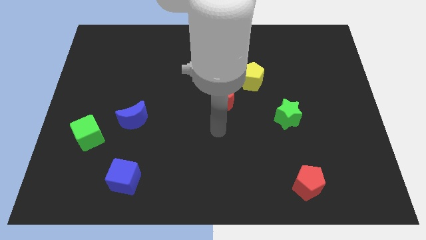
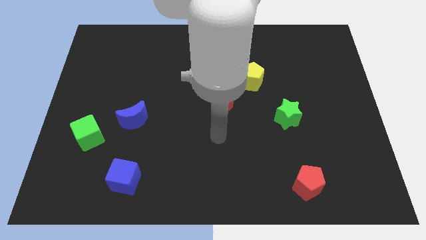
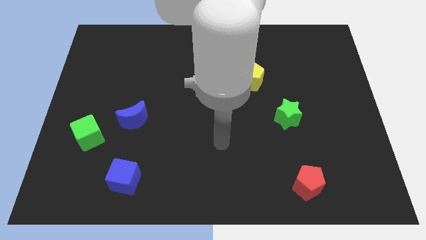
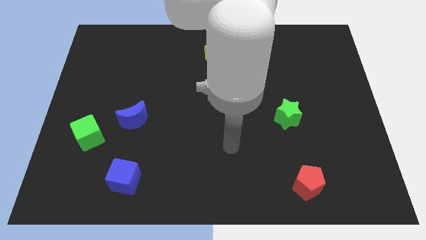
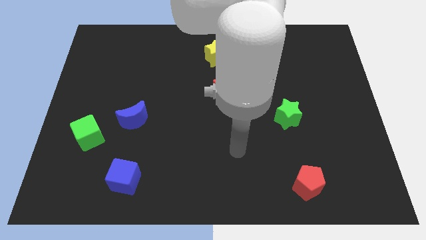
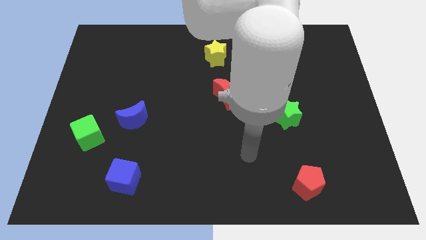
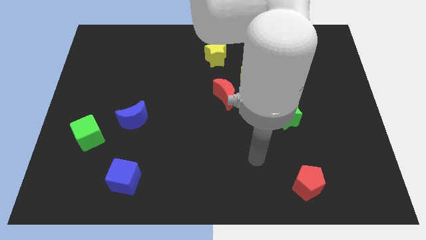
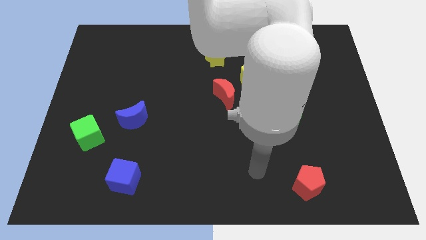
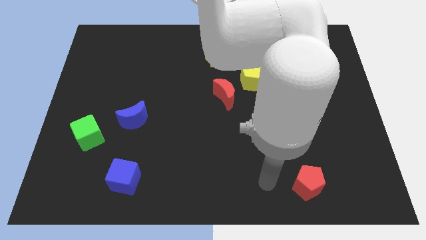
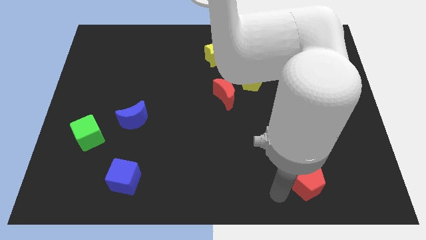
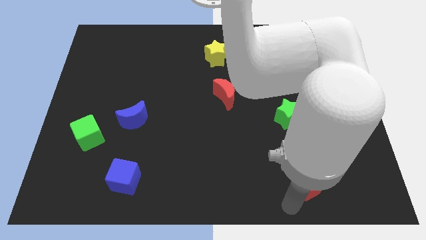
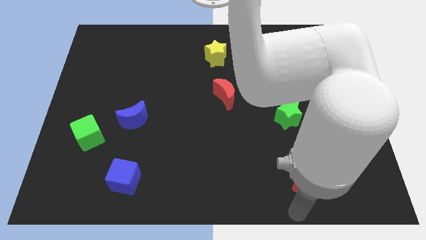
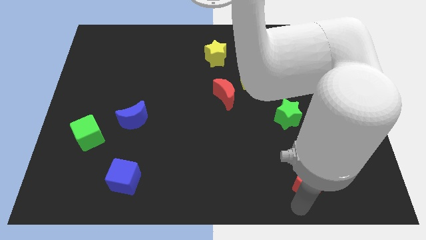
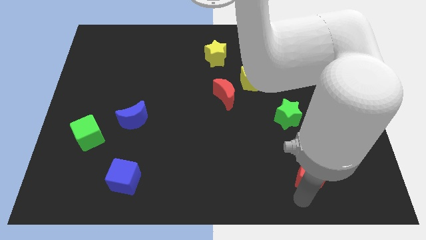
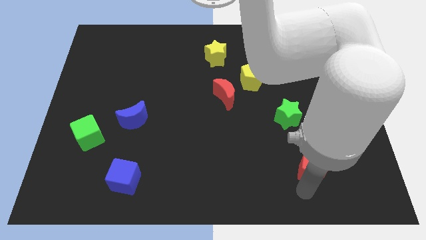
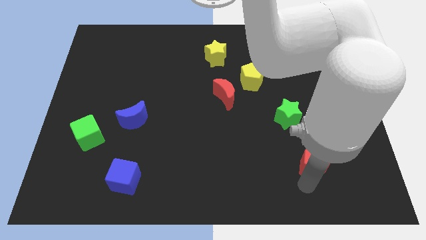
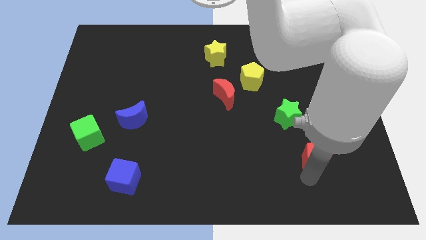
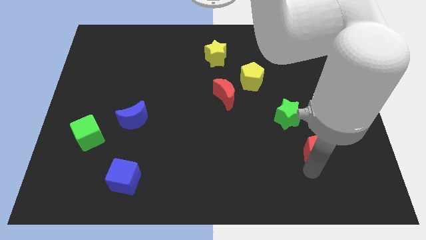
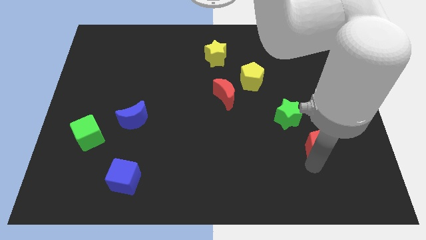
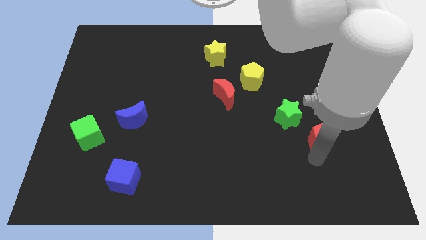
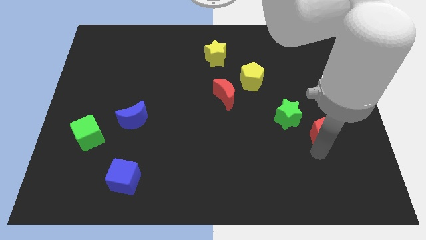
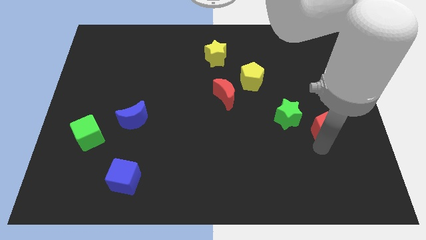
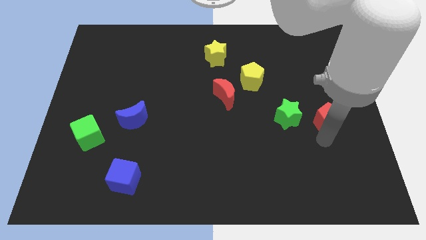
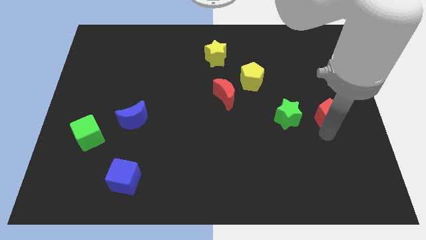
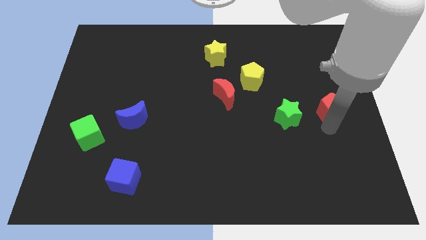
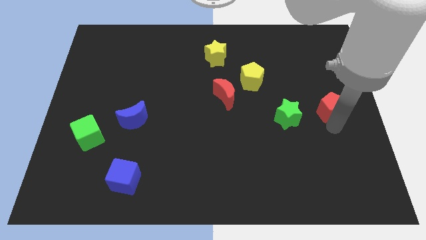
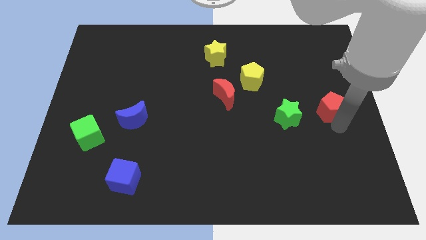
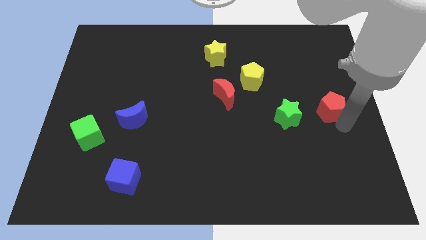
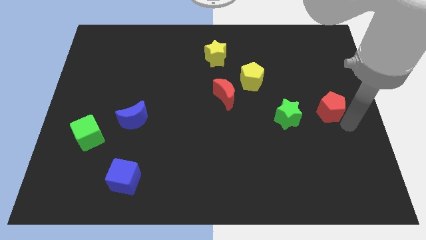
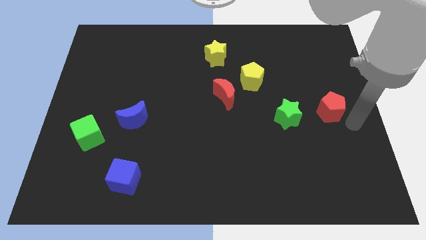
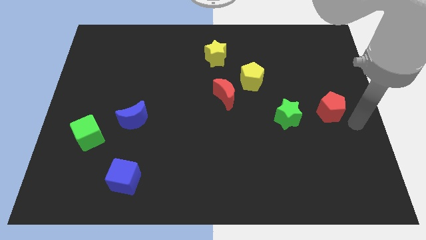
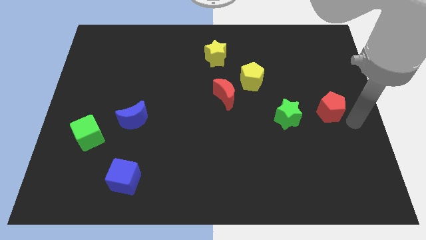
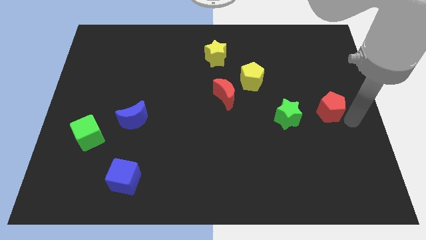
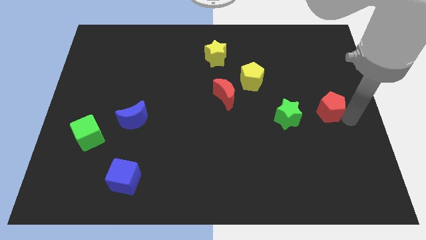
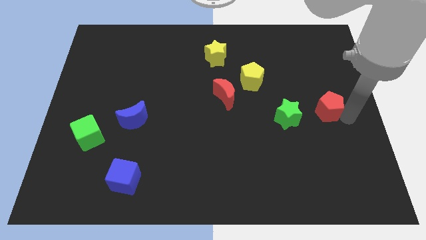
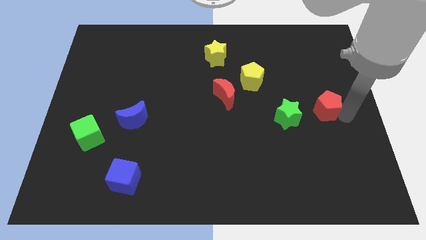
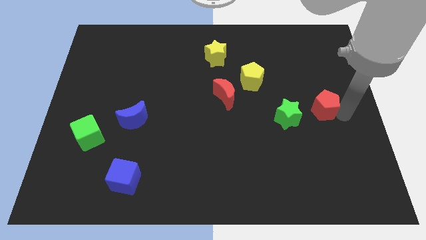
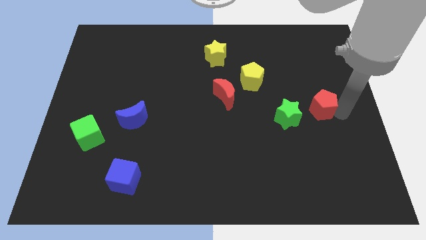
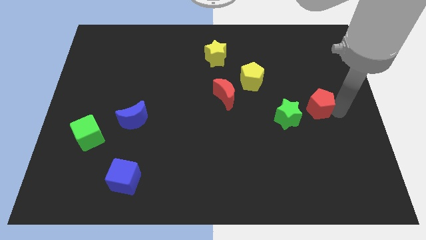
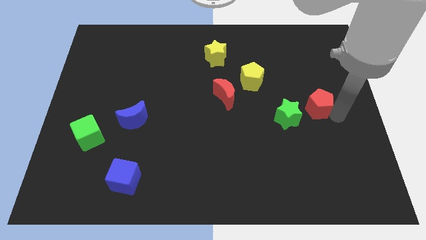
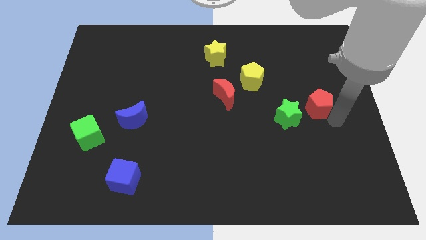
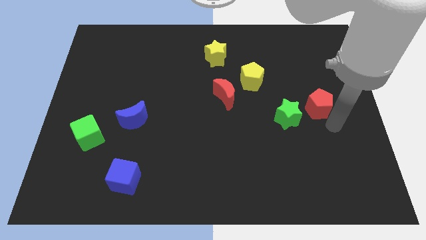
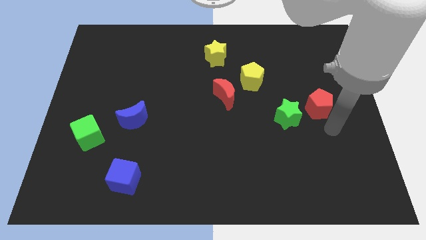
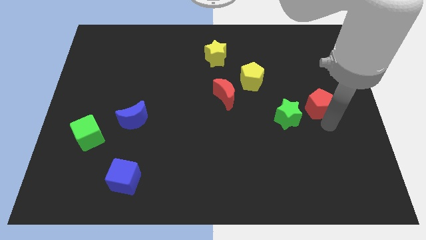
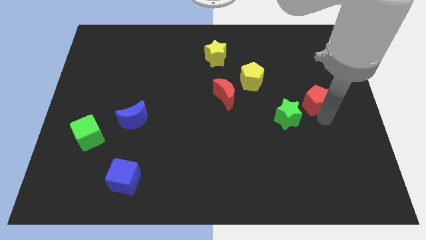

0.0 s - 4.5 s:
move the red pentagon upwards

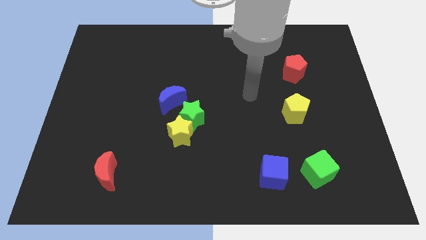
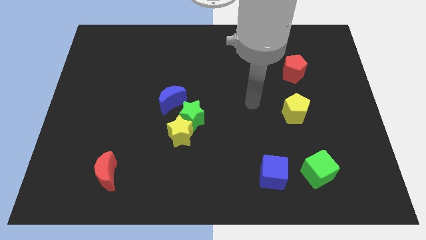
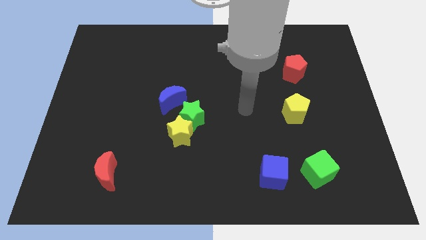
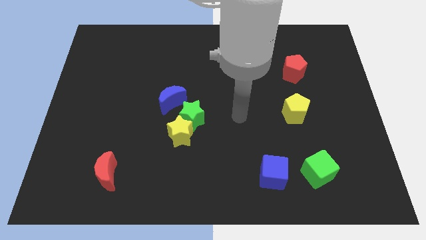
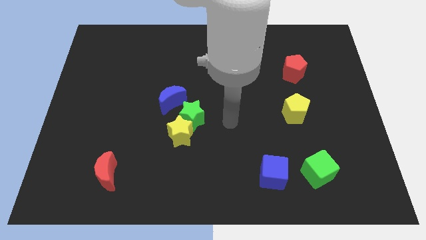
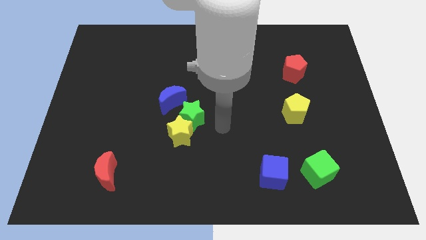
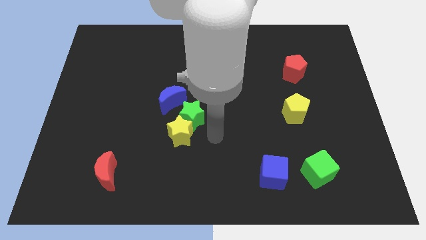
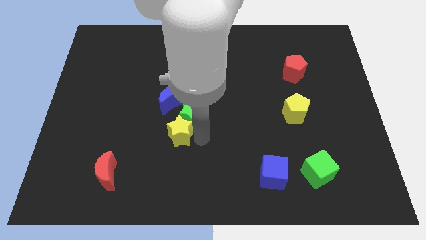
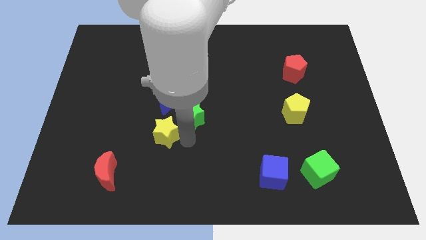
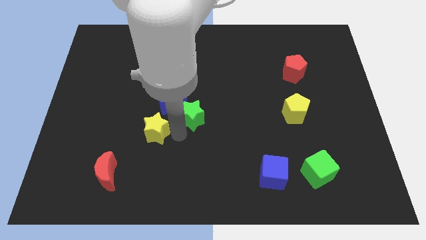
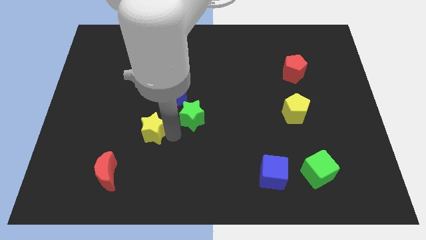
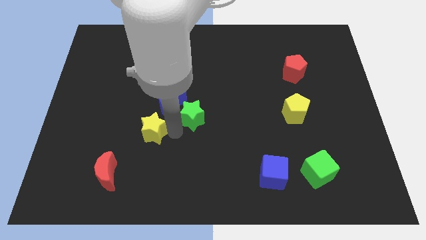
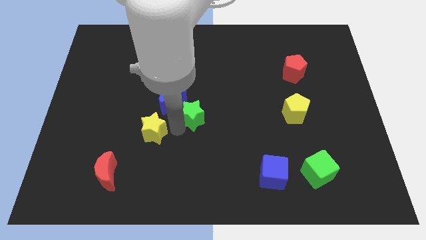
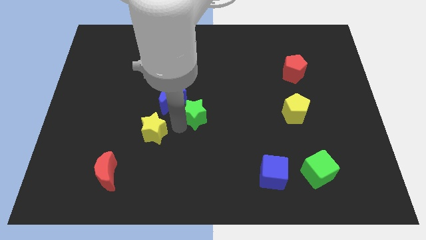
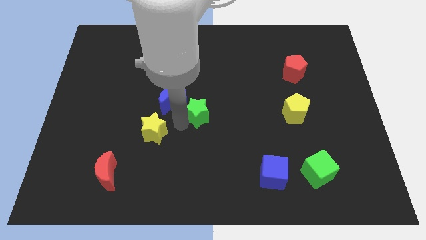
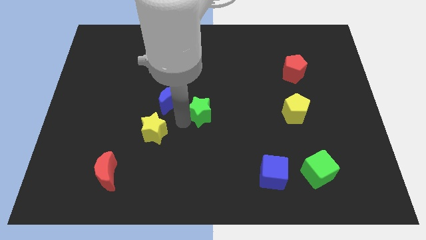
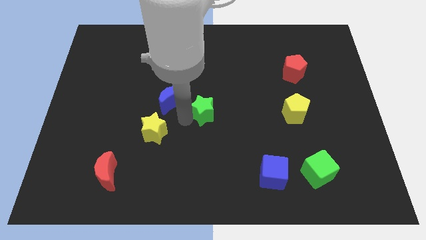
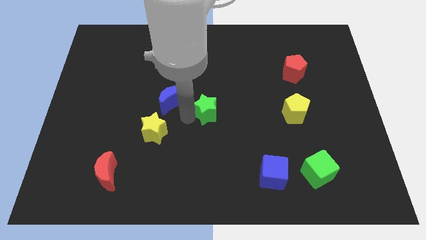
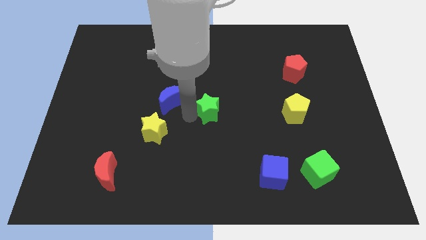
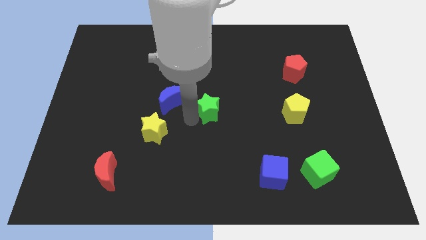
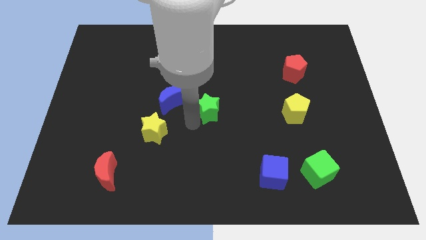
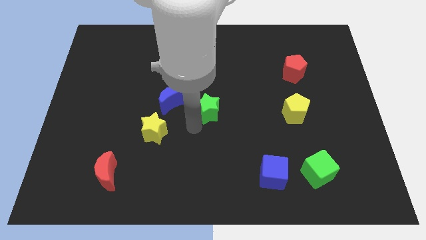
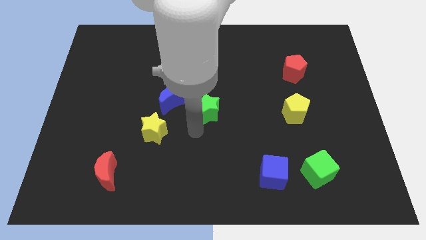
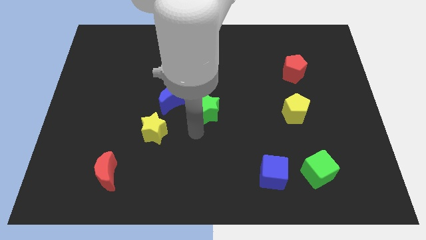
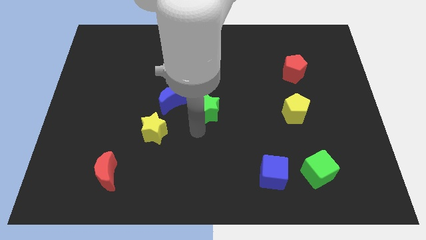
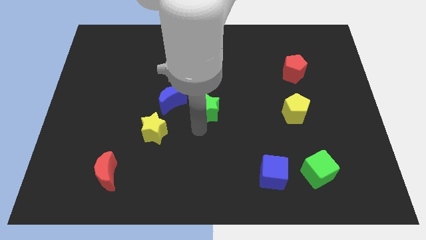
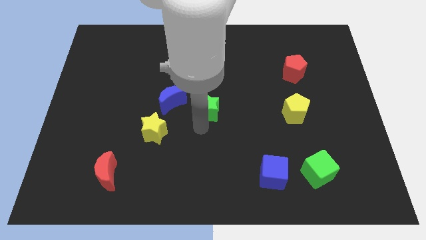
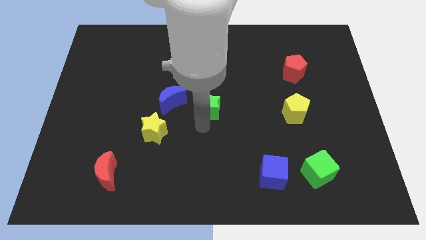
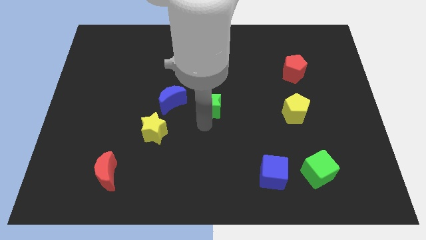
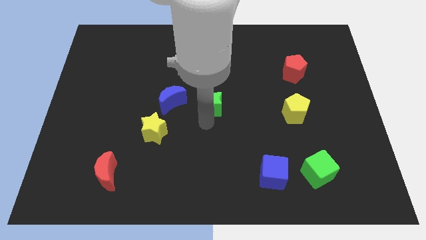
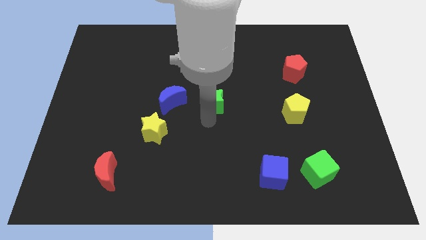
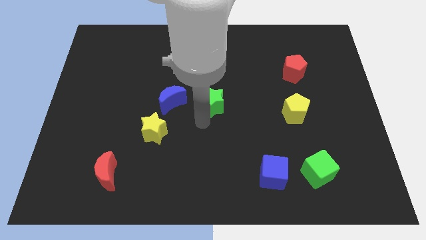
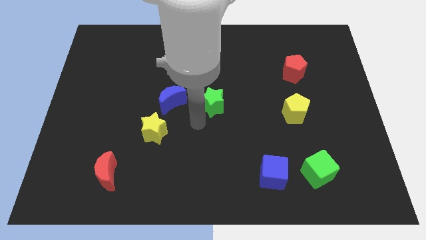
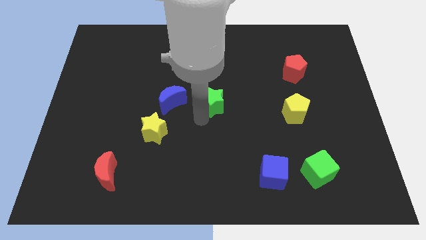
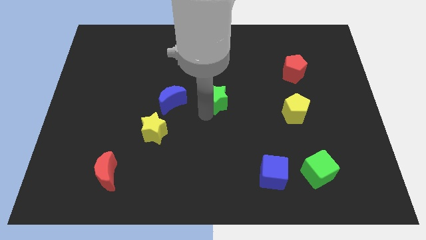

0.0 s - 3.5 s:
slightly slide the green star up and right diagonally

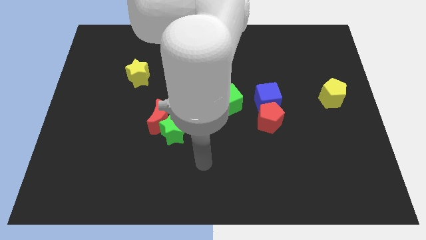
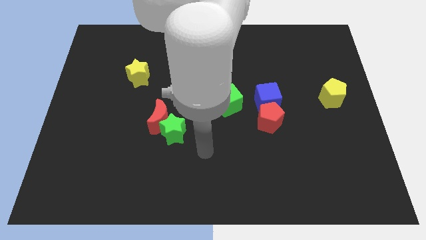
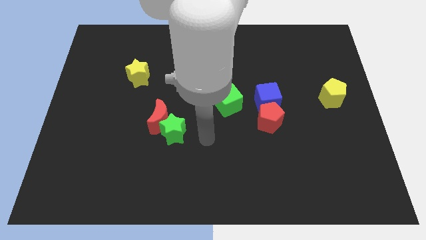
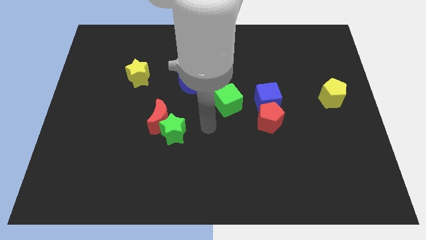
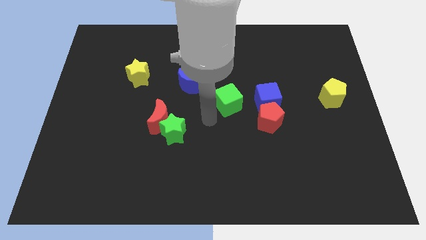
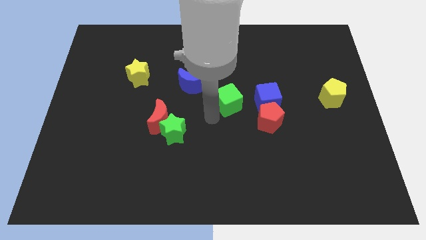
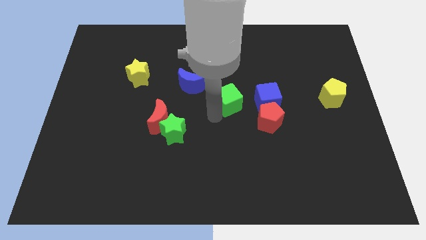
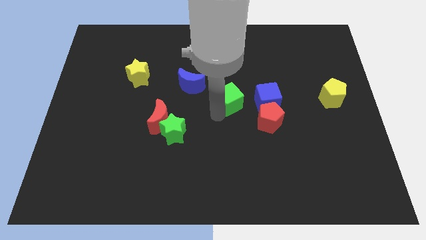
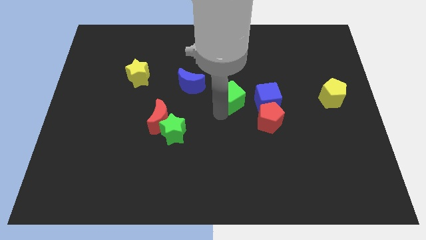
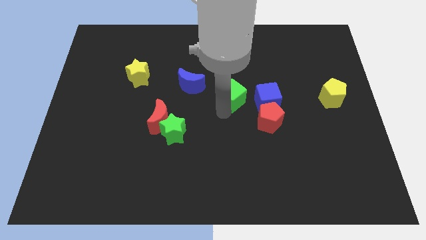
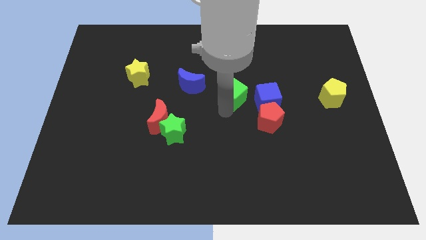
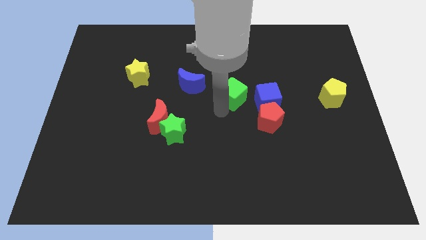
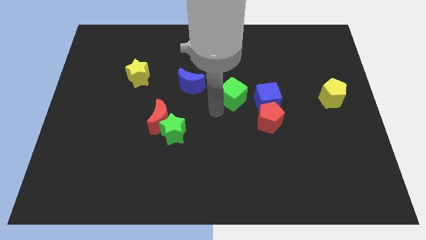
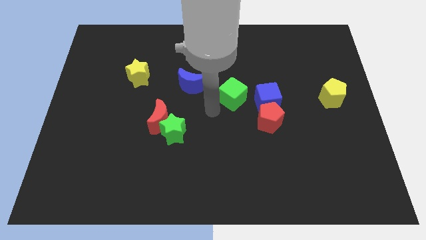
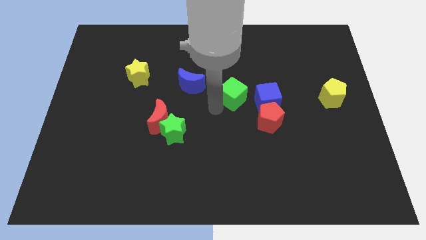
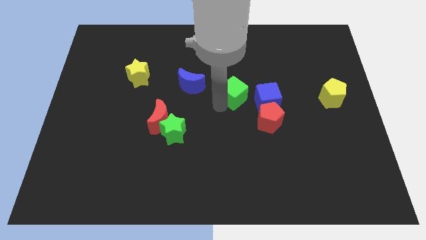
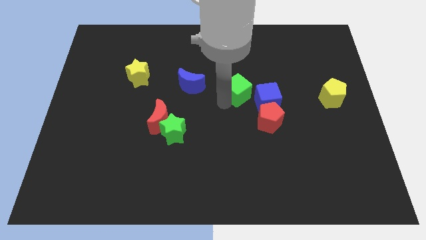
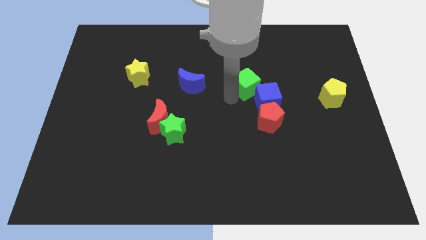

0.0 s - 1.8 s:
push the green cube slightly up and right diagonally
